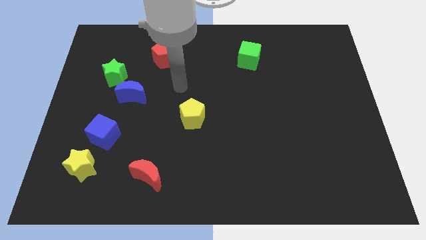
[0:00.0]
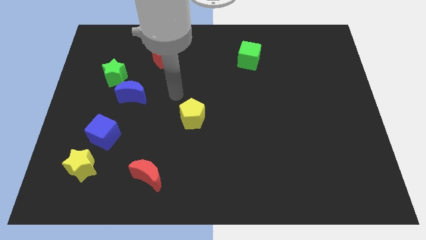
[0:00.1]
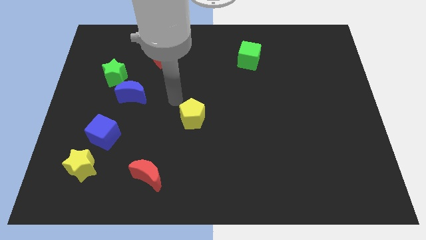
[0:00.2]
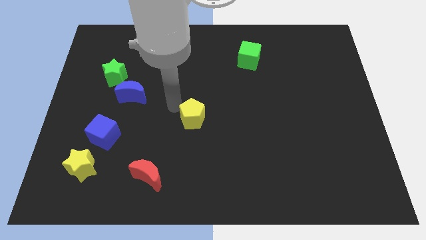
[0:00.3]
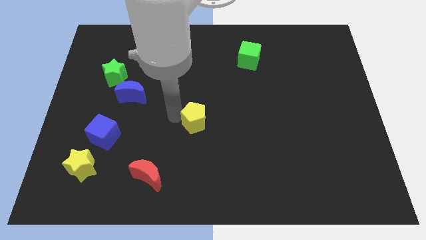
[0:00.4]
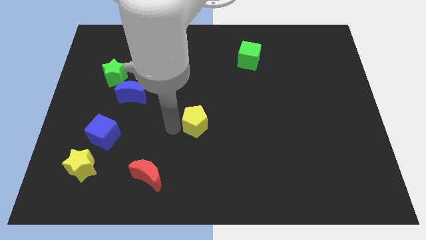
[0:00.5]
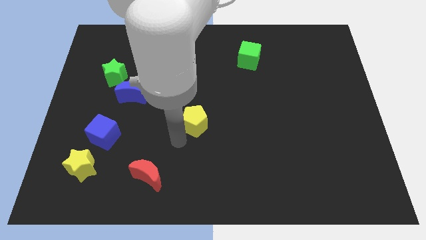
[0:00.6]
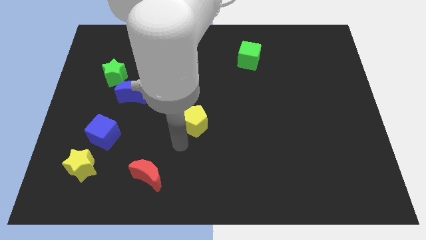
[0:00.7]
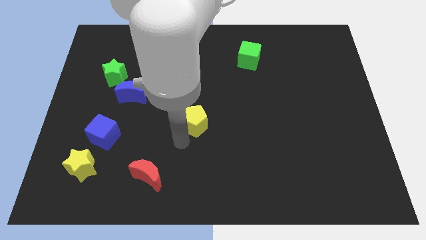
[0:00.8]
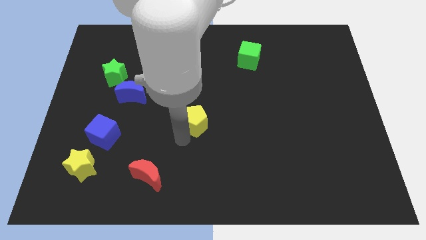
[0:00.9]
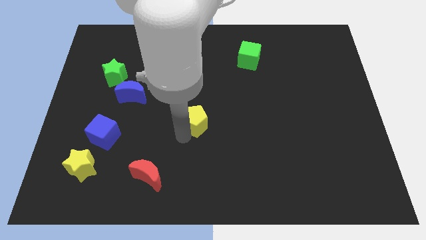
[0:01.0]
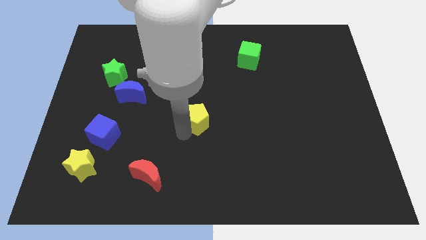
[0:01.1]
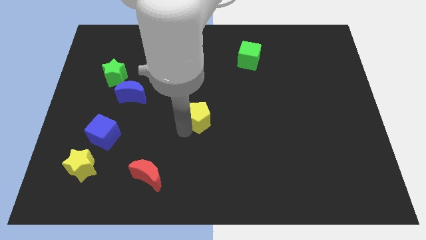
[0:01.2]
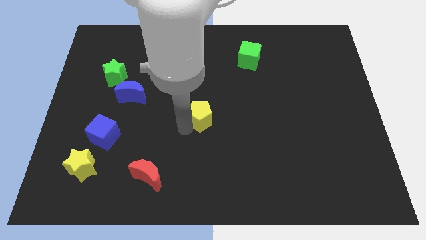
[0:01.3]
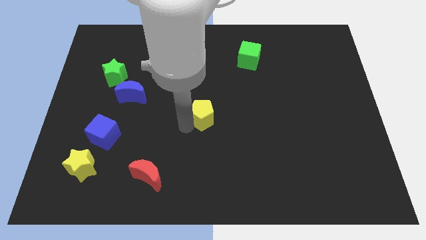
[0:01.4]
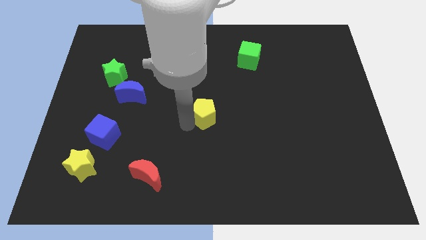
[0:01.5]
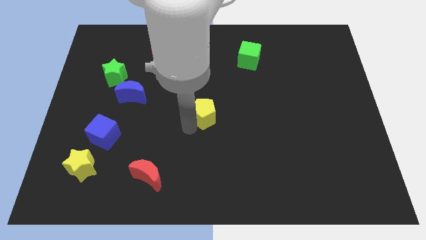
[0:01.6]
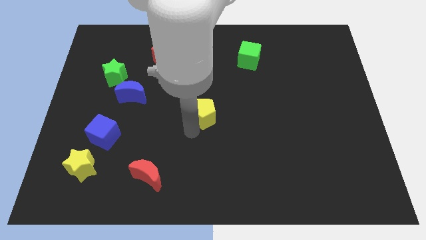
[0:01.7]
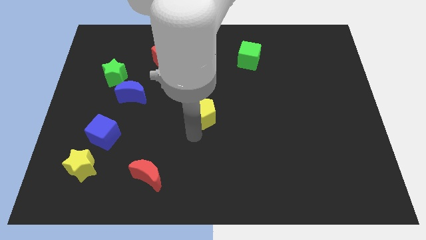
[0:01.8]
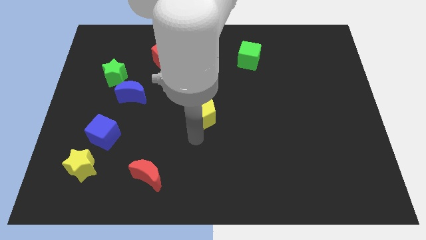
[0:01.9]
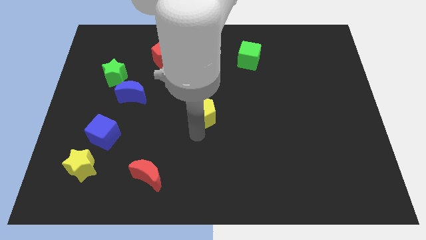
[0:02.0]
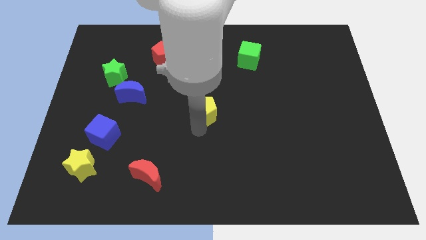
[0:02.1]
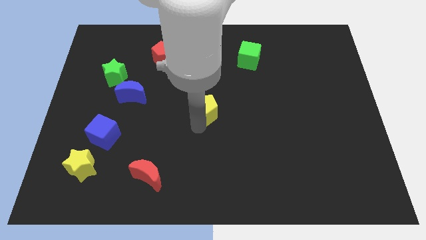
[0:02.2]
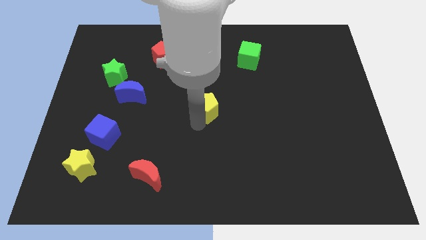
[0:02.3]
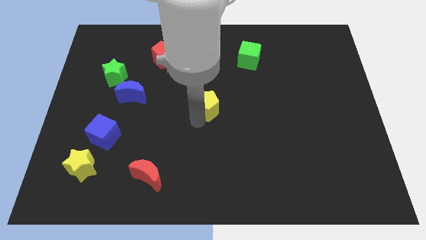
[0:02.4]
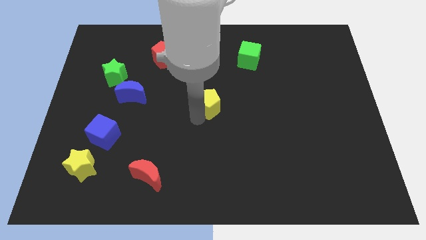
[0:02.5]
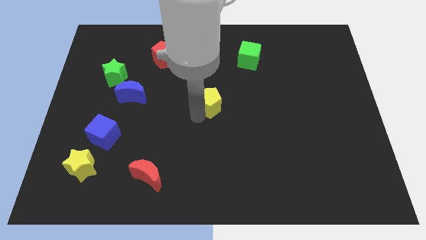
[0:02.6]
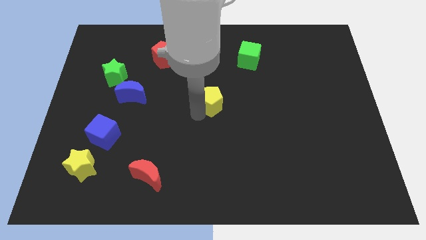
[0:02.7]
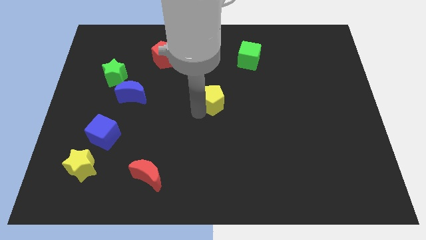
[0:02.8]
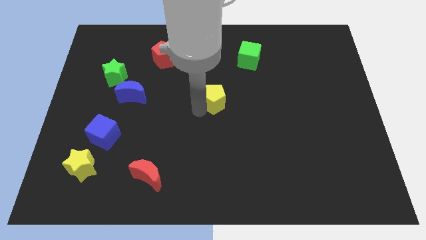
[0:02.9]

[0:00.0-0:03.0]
slightly push the yellow pentagon up and to the right

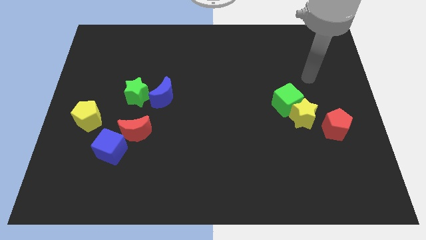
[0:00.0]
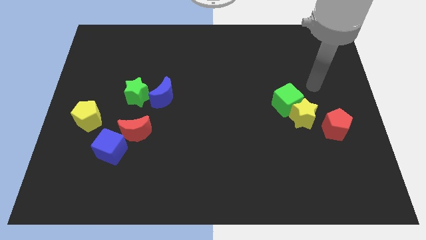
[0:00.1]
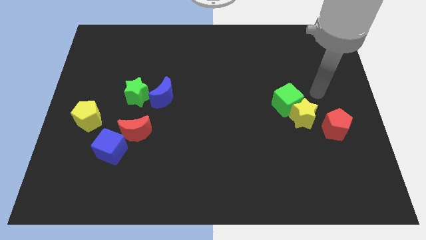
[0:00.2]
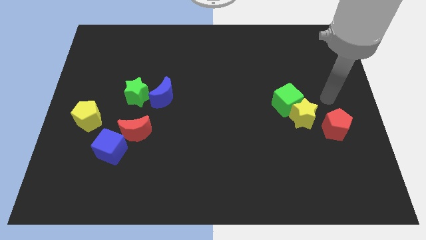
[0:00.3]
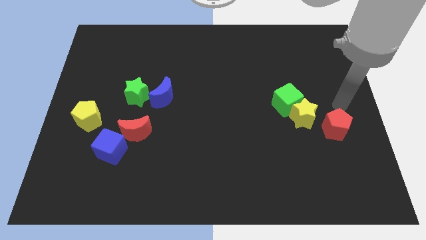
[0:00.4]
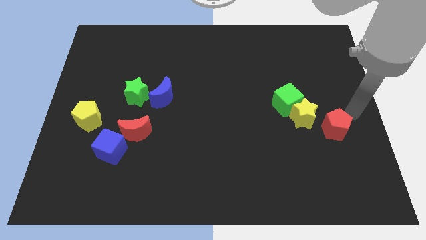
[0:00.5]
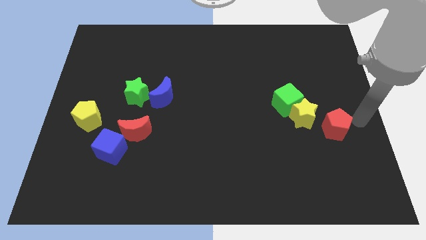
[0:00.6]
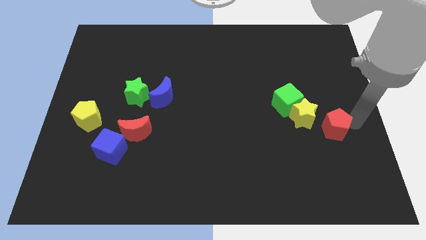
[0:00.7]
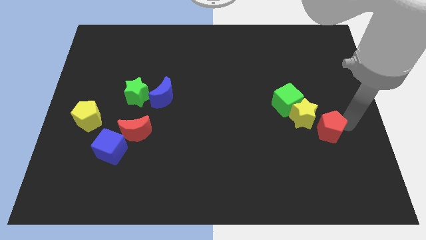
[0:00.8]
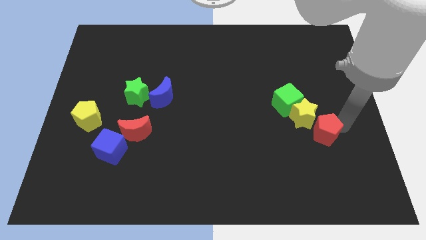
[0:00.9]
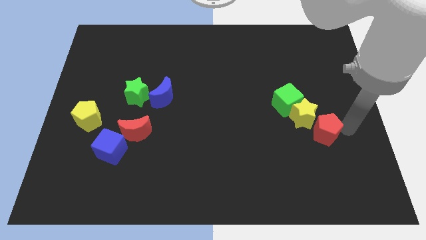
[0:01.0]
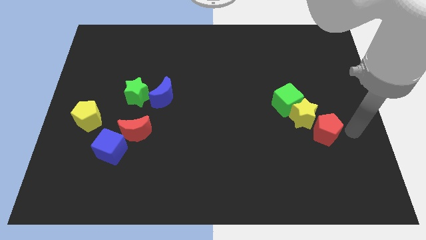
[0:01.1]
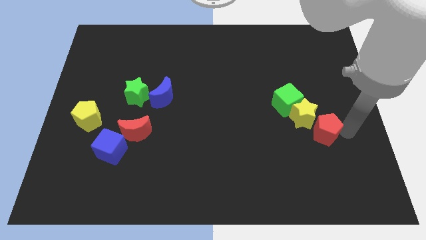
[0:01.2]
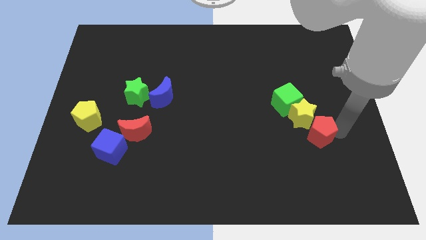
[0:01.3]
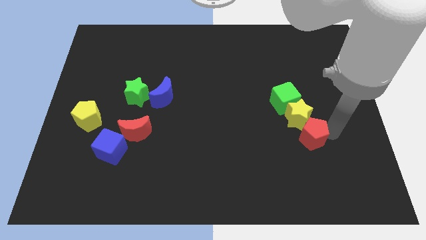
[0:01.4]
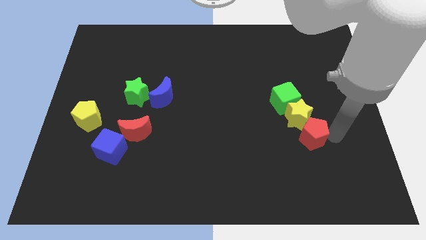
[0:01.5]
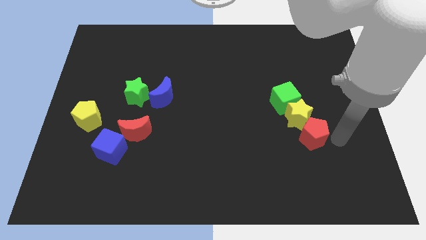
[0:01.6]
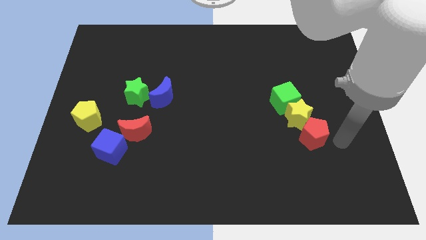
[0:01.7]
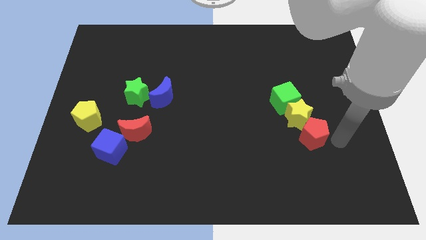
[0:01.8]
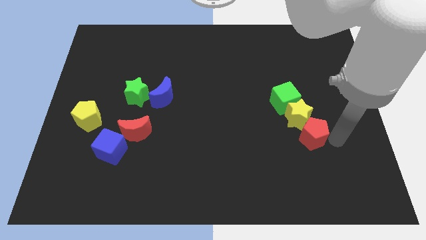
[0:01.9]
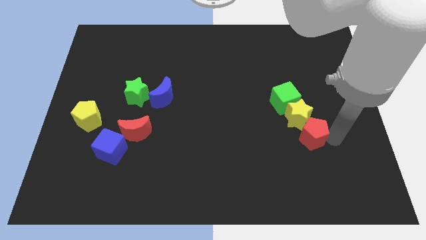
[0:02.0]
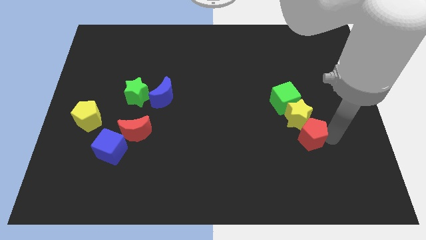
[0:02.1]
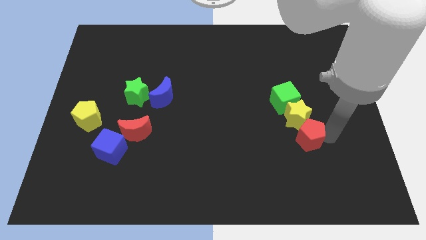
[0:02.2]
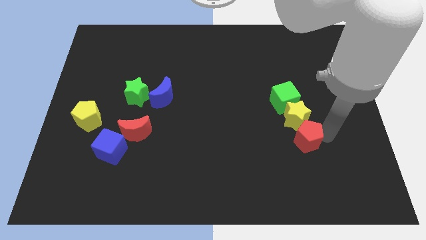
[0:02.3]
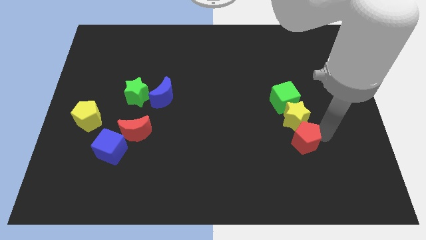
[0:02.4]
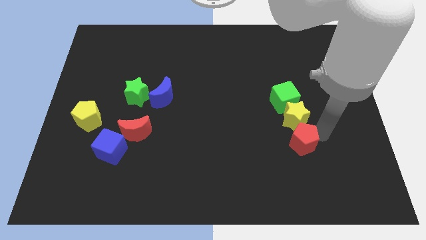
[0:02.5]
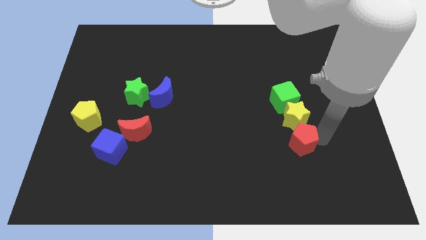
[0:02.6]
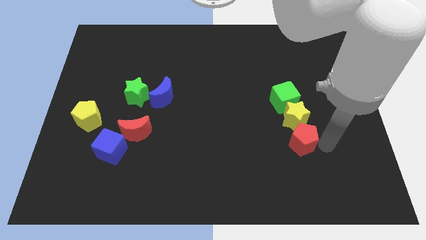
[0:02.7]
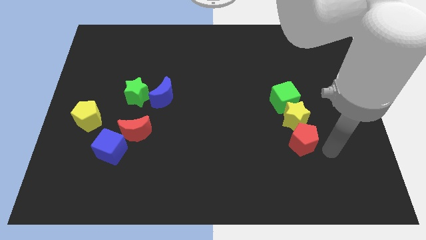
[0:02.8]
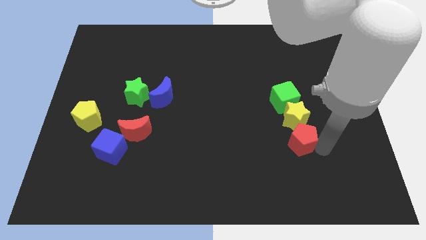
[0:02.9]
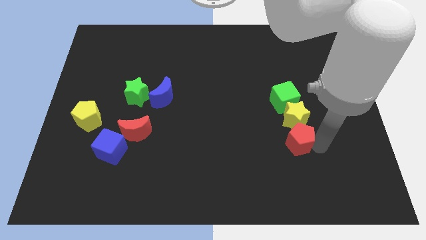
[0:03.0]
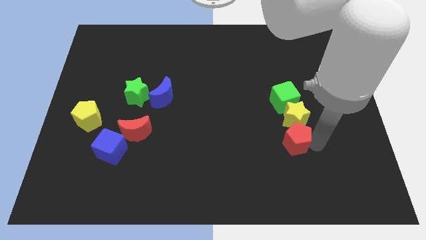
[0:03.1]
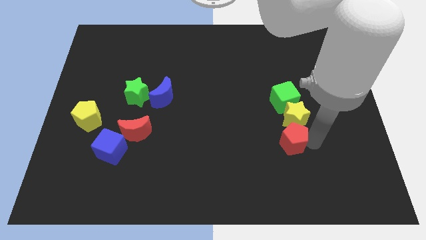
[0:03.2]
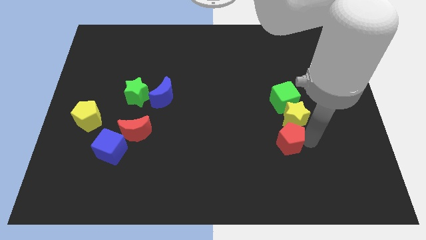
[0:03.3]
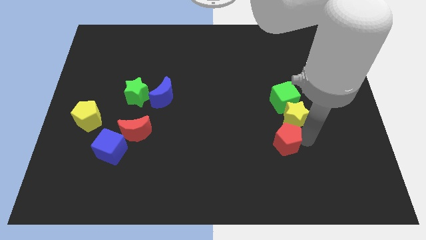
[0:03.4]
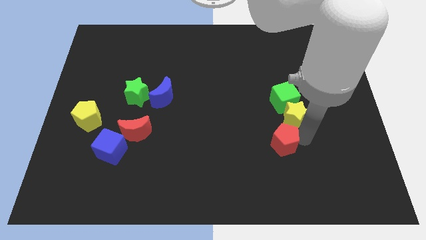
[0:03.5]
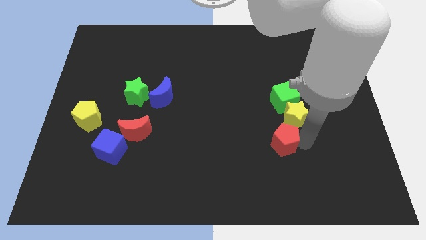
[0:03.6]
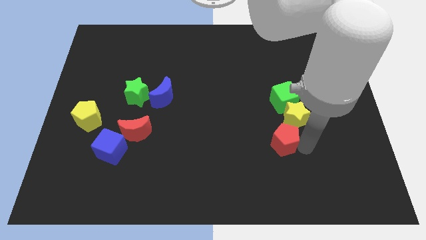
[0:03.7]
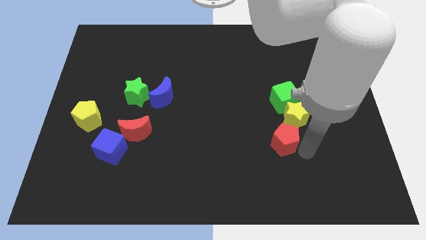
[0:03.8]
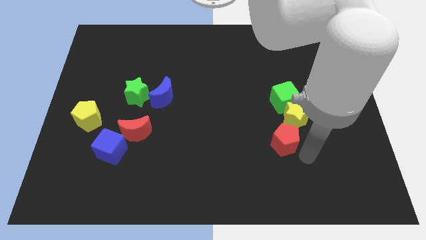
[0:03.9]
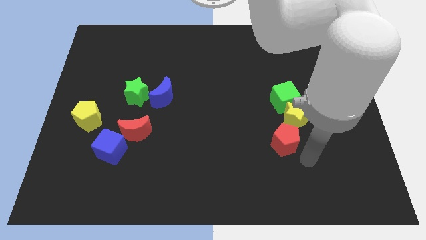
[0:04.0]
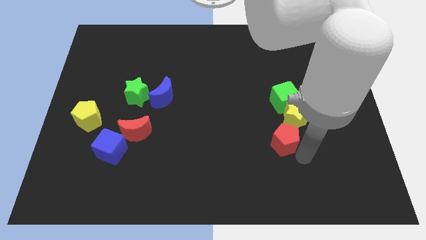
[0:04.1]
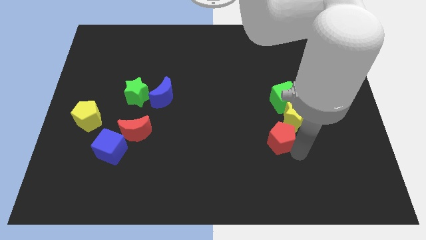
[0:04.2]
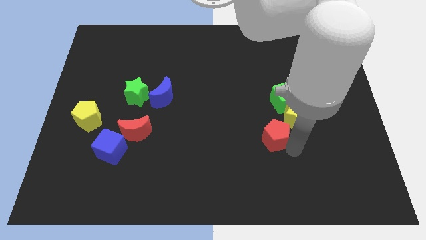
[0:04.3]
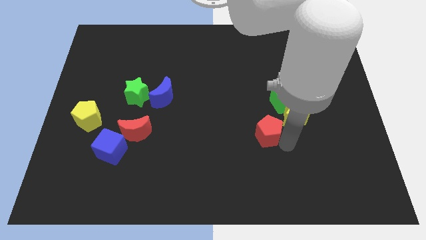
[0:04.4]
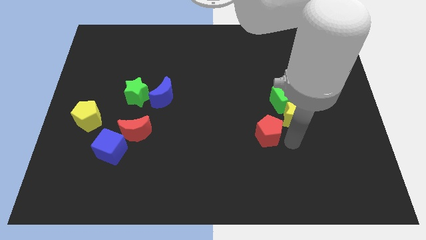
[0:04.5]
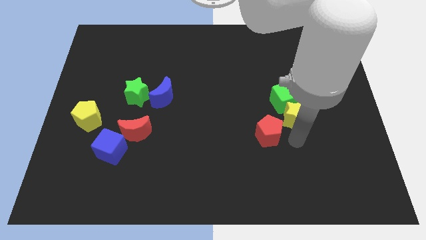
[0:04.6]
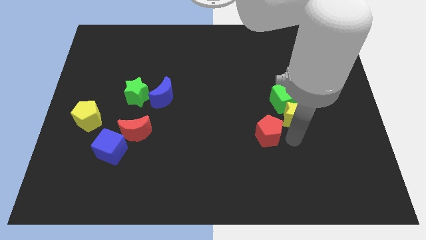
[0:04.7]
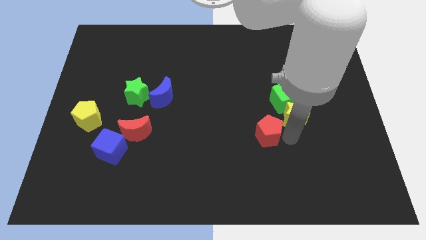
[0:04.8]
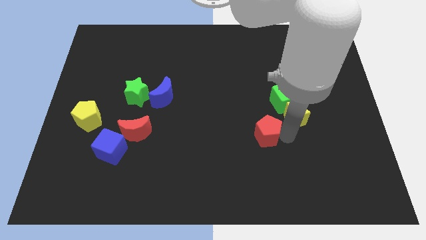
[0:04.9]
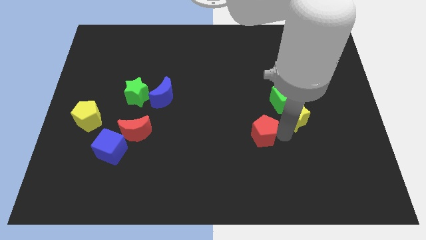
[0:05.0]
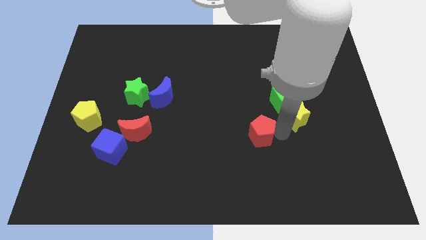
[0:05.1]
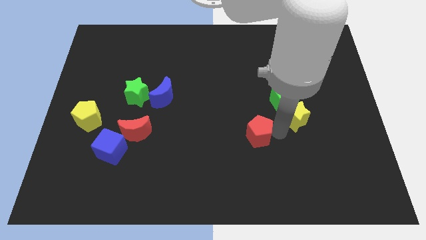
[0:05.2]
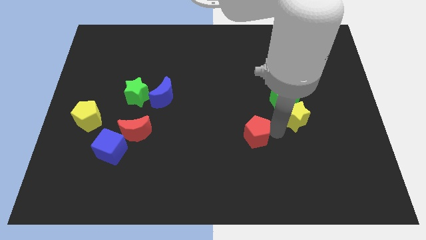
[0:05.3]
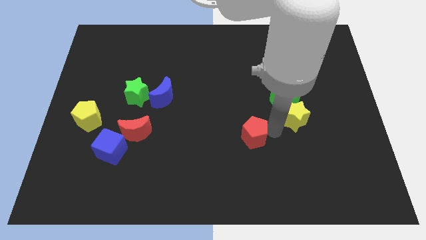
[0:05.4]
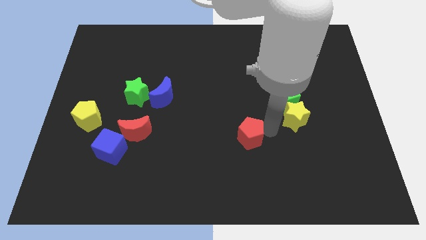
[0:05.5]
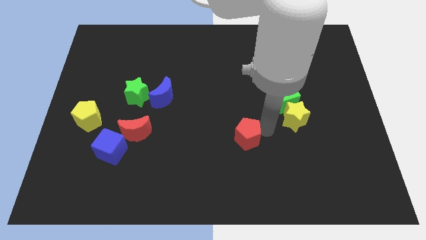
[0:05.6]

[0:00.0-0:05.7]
move the red pentagon left
